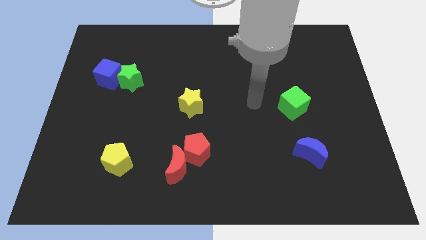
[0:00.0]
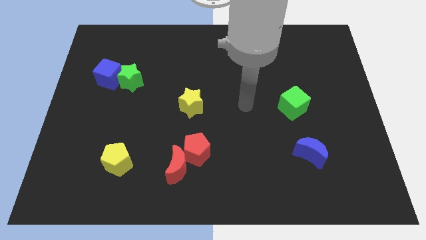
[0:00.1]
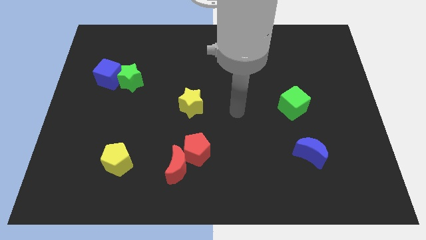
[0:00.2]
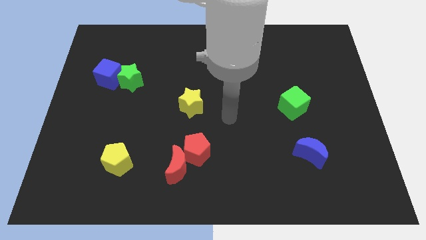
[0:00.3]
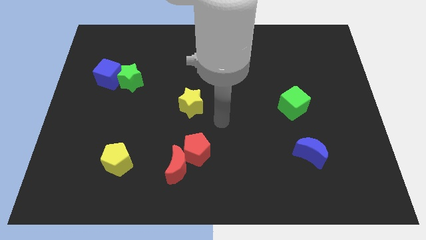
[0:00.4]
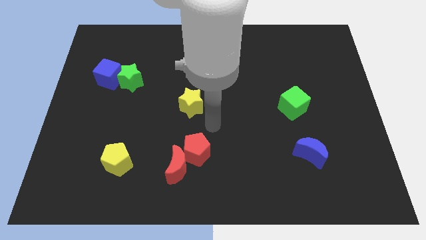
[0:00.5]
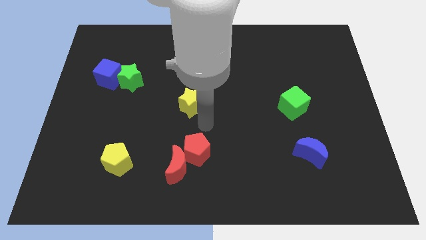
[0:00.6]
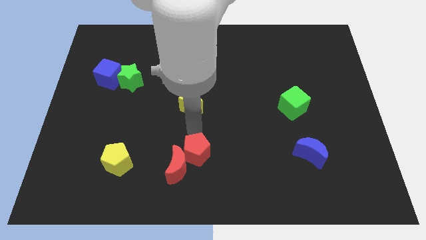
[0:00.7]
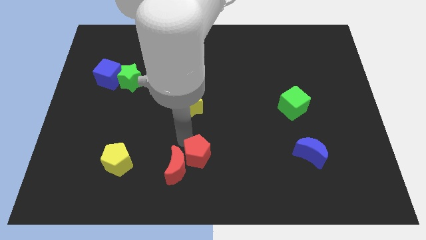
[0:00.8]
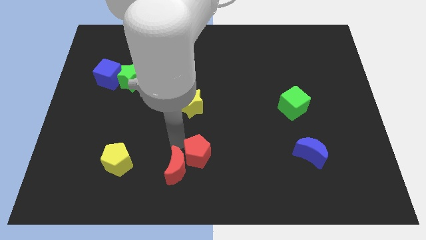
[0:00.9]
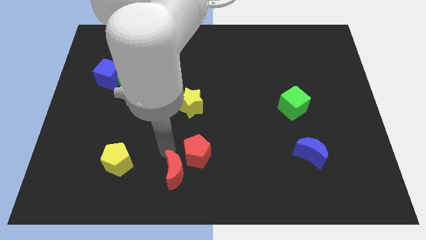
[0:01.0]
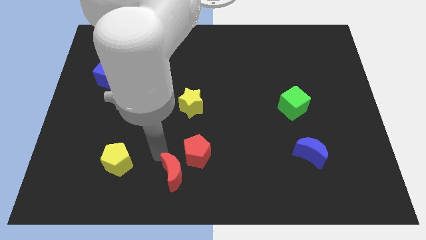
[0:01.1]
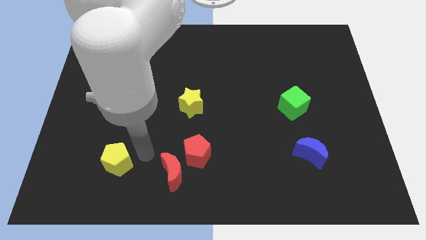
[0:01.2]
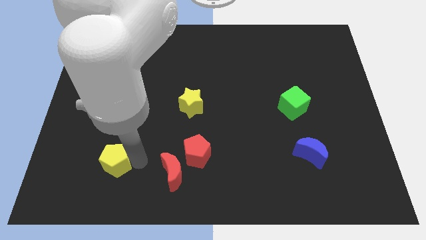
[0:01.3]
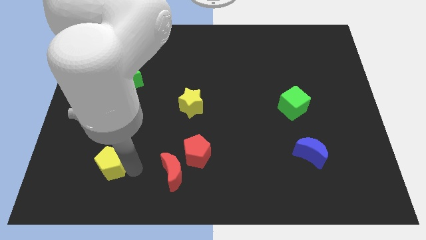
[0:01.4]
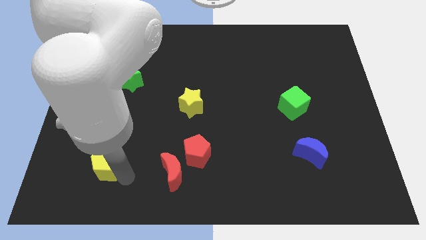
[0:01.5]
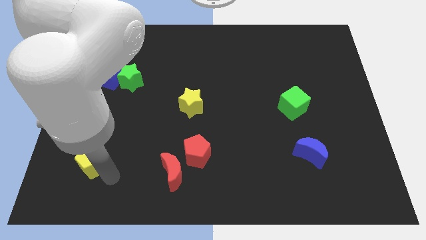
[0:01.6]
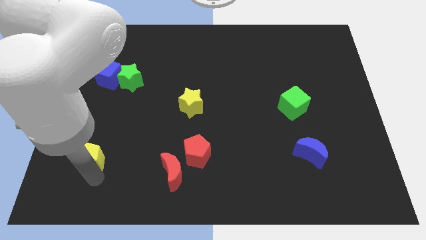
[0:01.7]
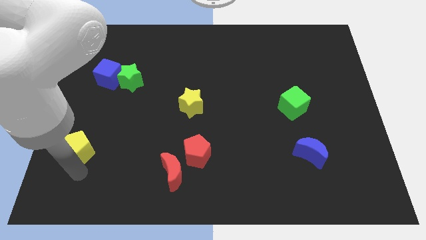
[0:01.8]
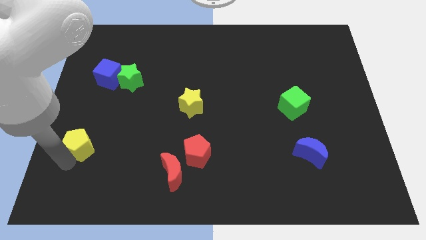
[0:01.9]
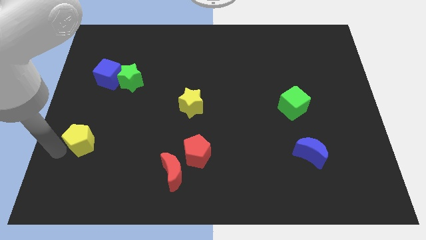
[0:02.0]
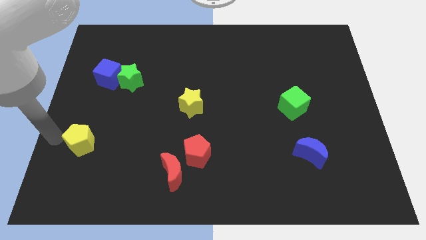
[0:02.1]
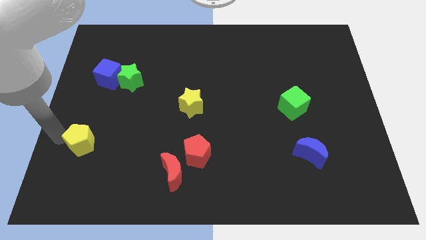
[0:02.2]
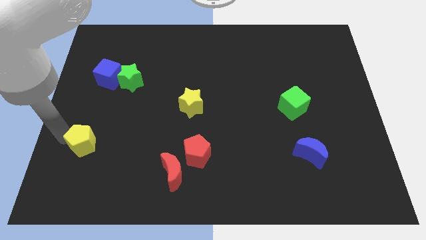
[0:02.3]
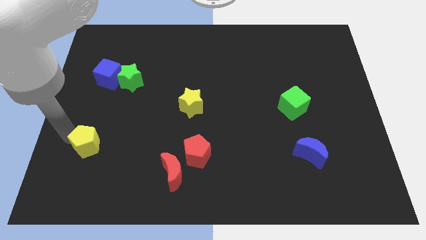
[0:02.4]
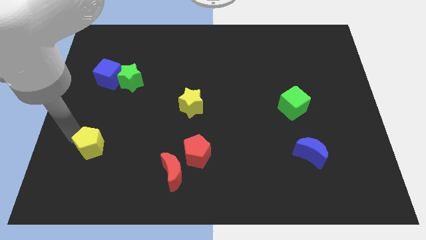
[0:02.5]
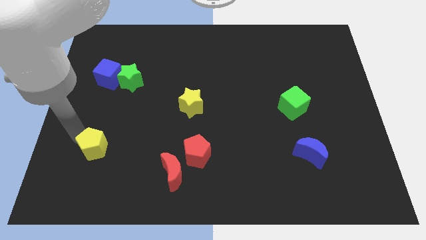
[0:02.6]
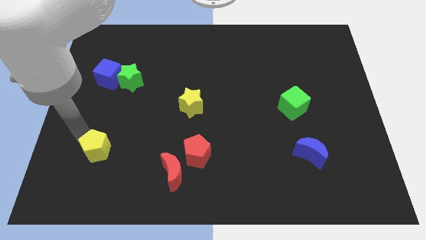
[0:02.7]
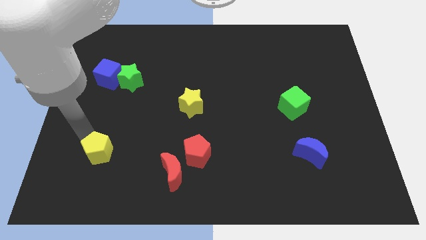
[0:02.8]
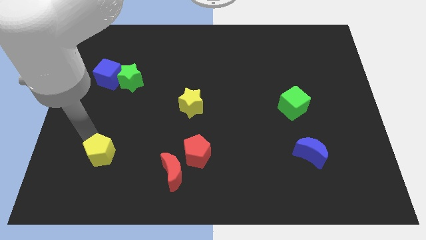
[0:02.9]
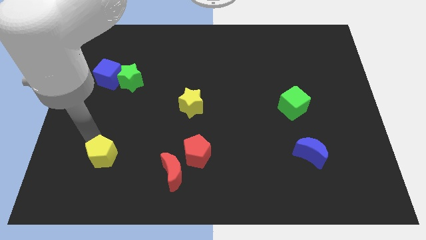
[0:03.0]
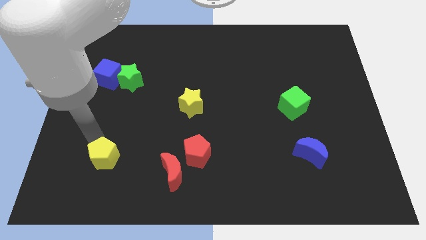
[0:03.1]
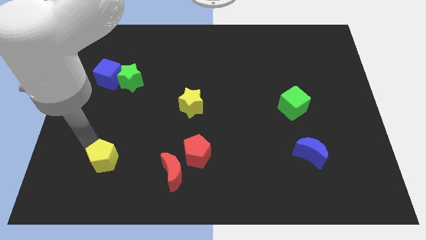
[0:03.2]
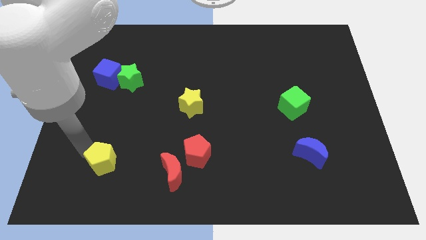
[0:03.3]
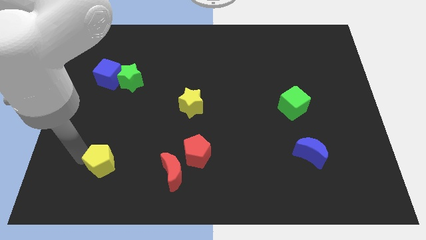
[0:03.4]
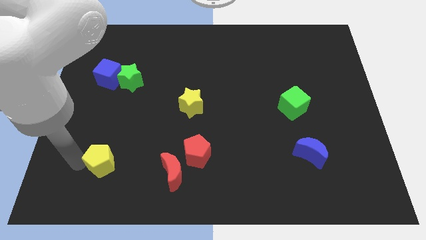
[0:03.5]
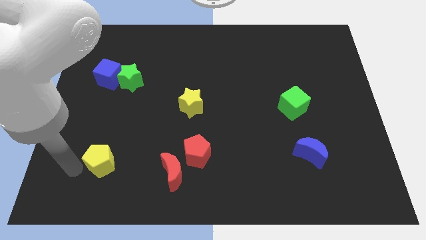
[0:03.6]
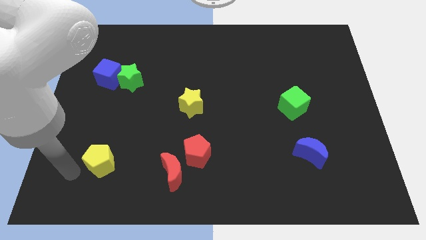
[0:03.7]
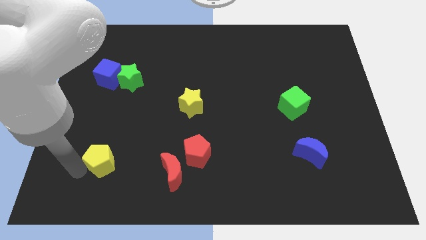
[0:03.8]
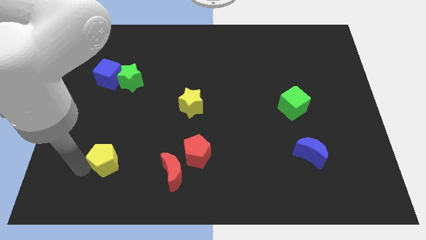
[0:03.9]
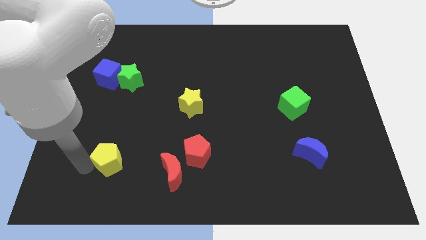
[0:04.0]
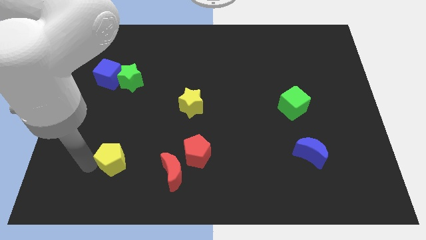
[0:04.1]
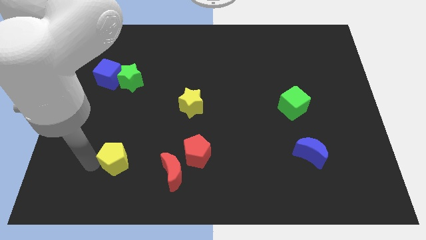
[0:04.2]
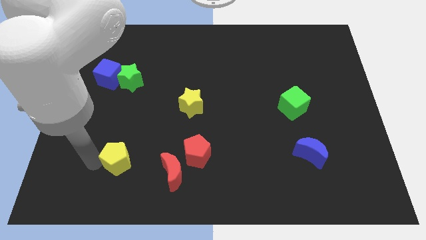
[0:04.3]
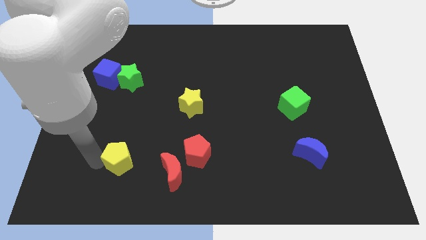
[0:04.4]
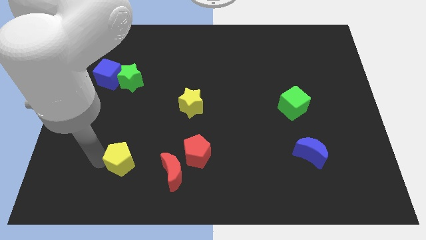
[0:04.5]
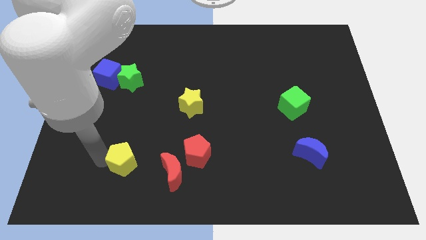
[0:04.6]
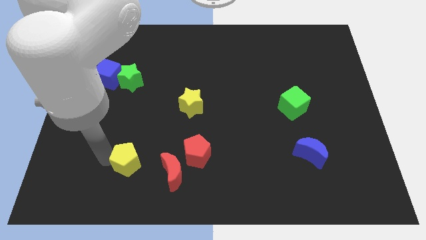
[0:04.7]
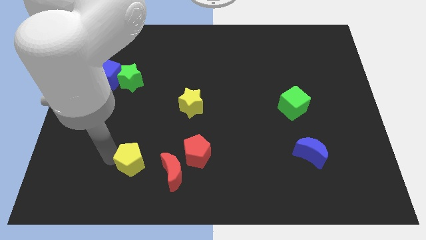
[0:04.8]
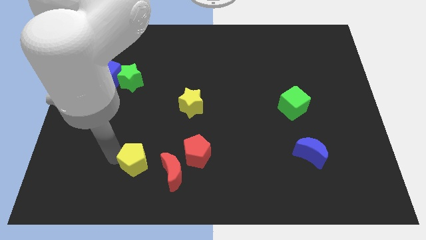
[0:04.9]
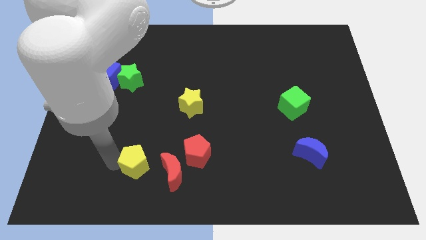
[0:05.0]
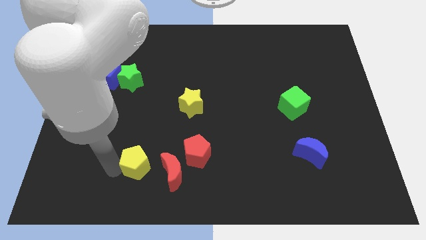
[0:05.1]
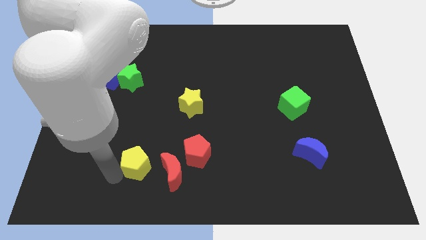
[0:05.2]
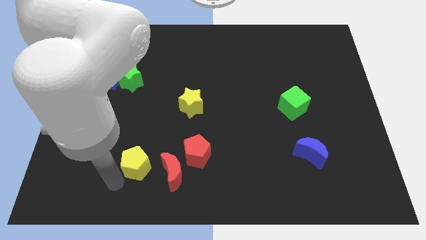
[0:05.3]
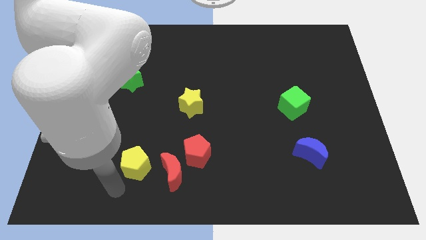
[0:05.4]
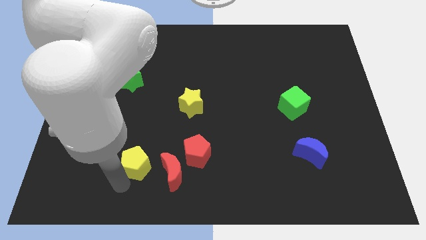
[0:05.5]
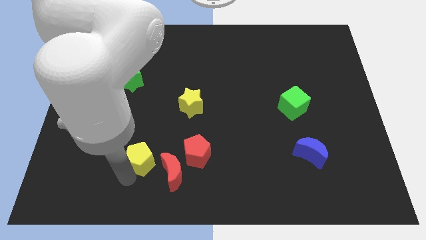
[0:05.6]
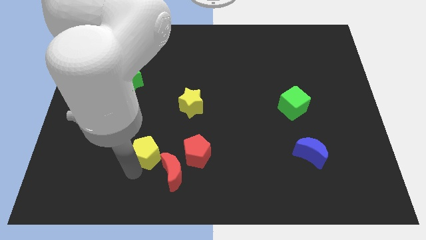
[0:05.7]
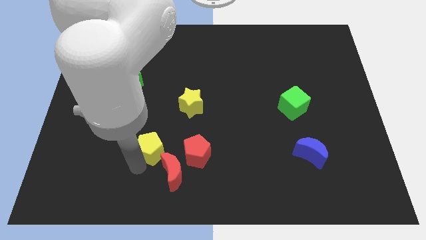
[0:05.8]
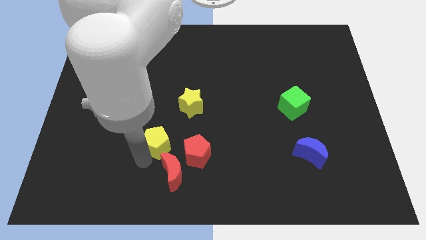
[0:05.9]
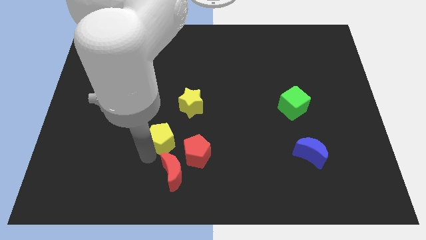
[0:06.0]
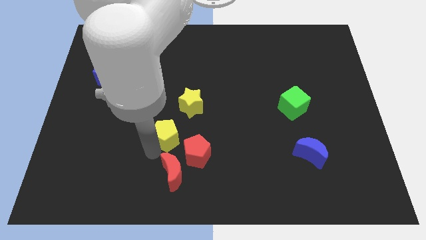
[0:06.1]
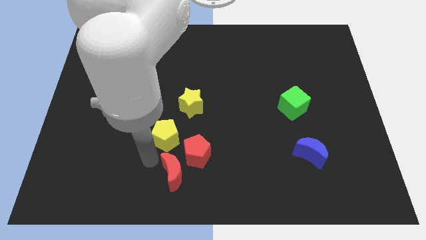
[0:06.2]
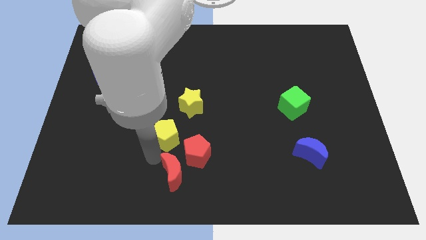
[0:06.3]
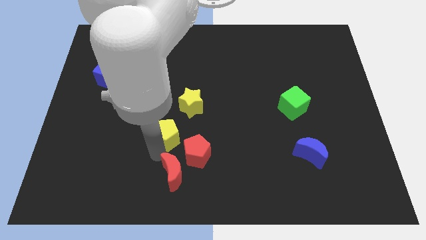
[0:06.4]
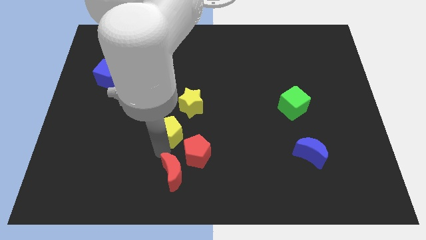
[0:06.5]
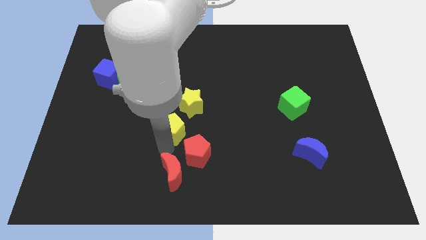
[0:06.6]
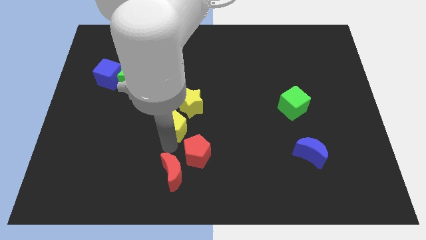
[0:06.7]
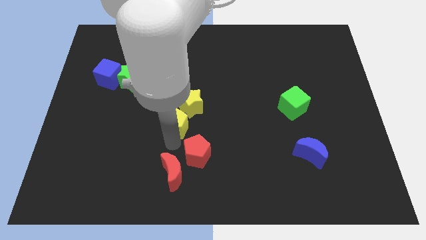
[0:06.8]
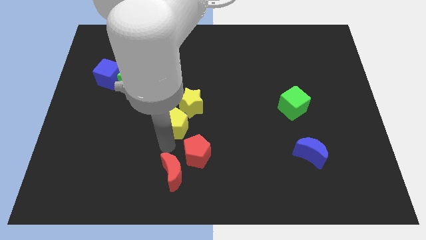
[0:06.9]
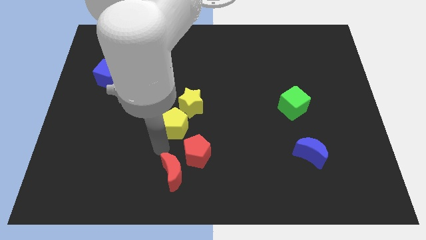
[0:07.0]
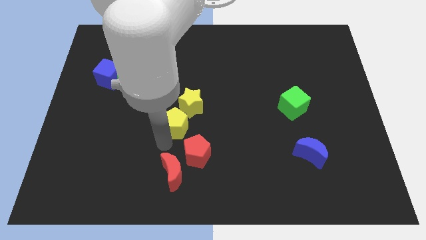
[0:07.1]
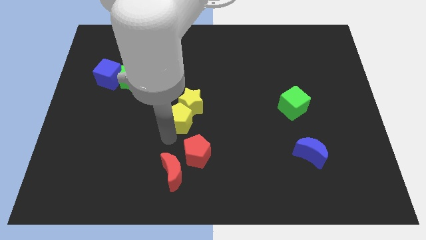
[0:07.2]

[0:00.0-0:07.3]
slide the yellow pentagon to the yellow star

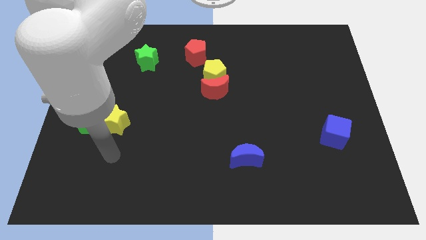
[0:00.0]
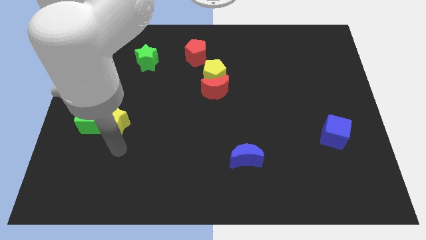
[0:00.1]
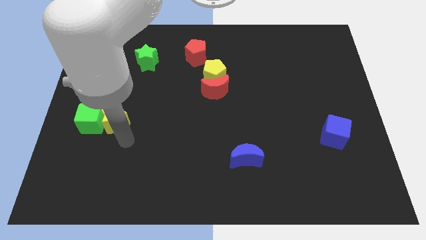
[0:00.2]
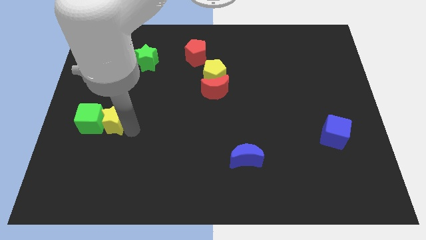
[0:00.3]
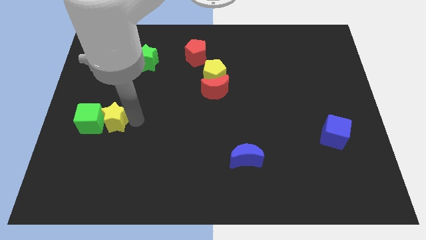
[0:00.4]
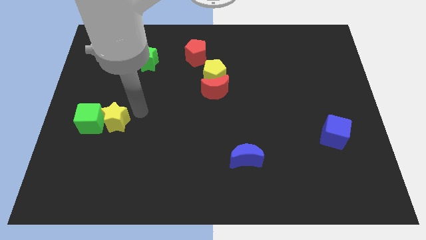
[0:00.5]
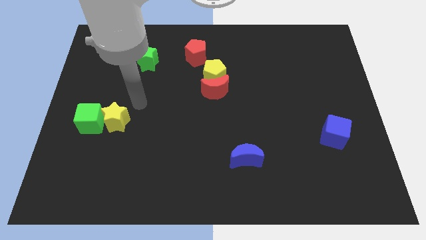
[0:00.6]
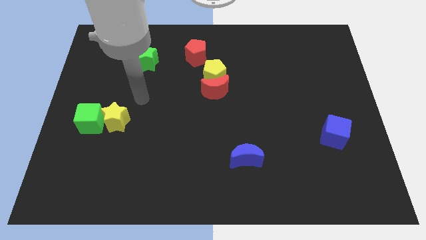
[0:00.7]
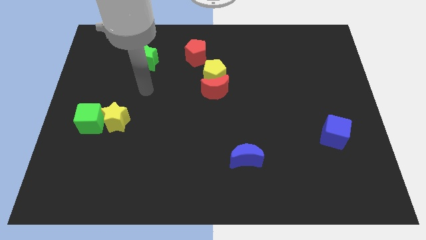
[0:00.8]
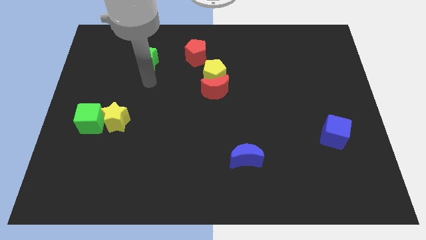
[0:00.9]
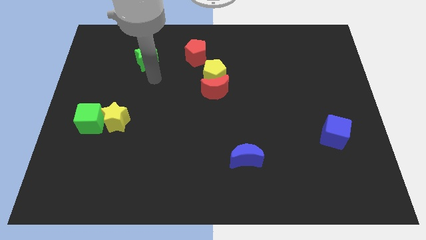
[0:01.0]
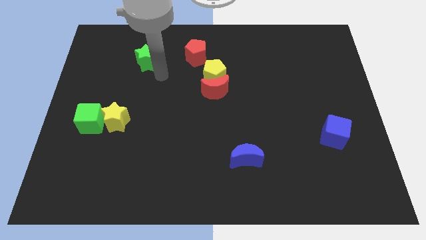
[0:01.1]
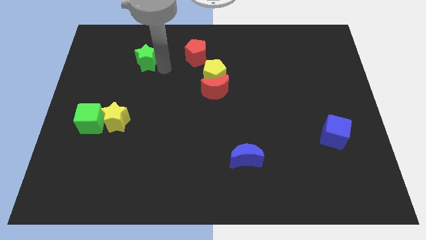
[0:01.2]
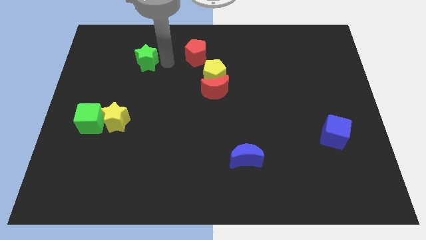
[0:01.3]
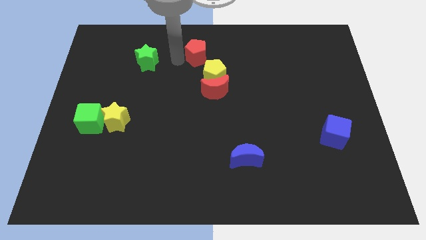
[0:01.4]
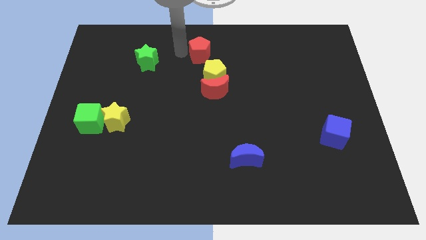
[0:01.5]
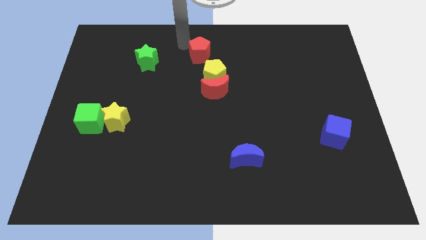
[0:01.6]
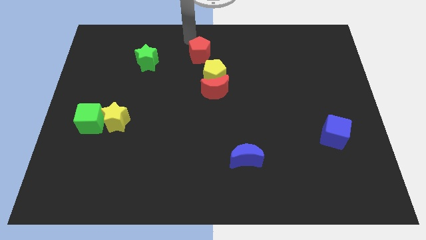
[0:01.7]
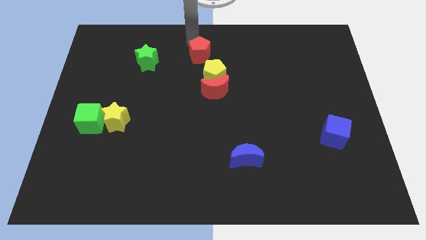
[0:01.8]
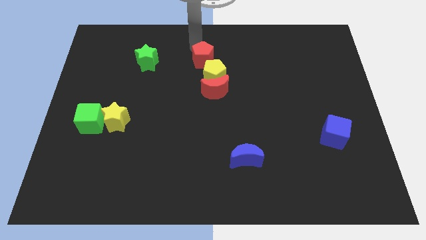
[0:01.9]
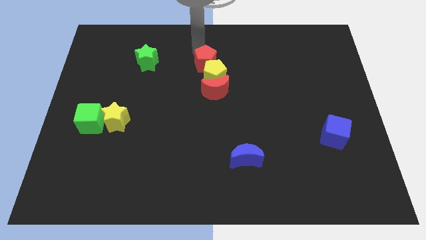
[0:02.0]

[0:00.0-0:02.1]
slide the red pentagon next to the yellow pentagon
